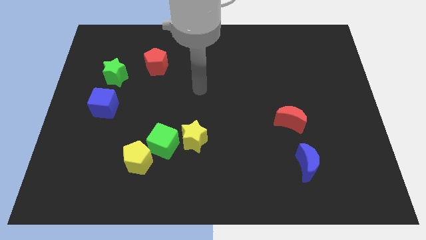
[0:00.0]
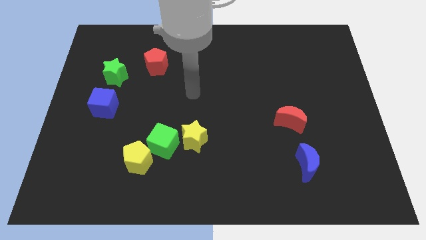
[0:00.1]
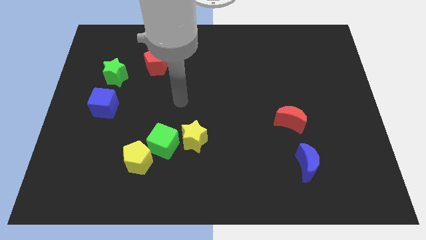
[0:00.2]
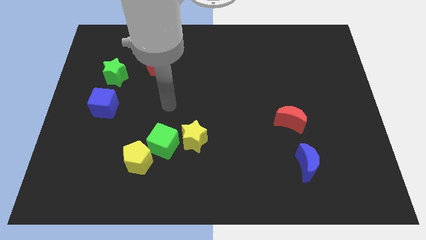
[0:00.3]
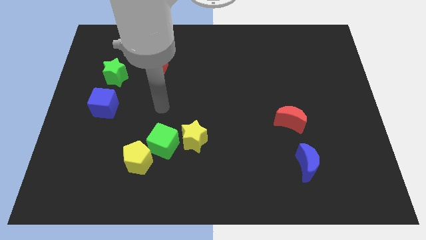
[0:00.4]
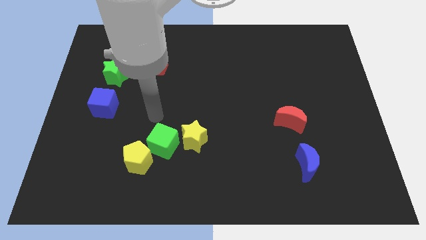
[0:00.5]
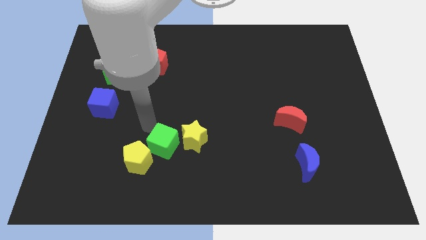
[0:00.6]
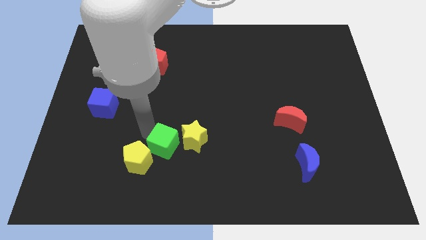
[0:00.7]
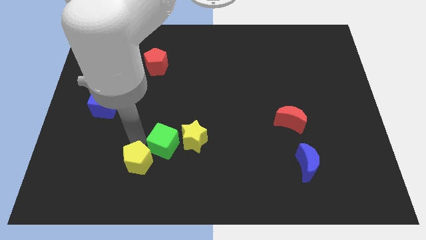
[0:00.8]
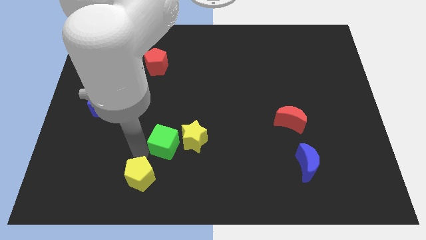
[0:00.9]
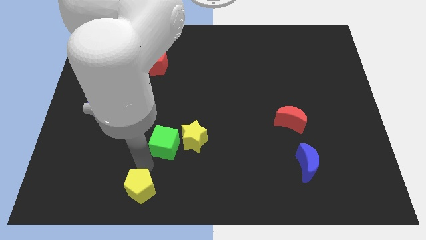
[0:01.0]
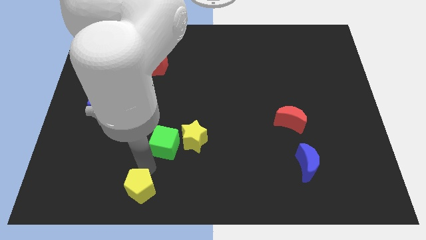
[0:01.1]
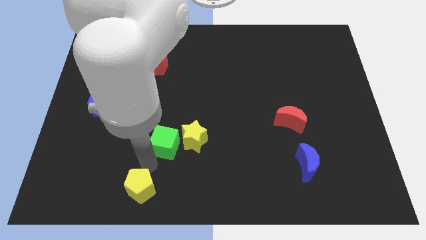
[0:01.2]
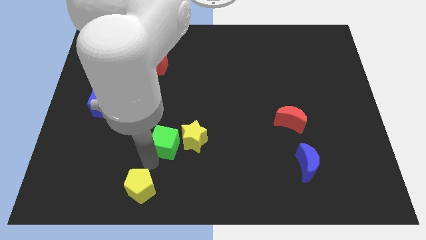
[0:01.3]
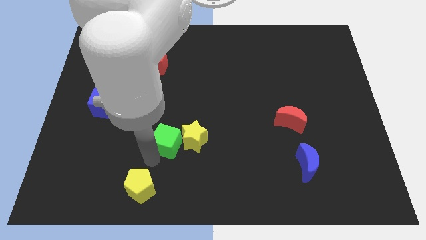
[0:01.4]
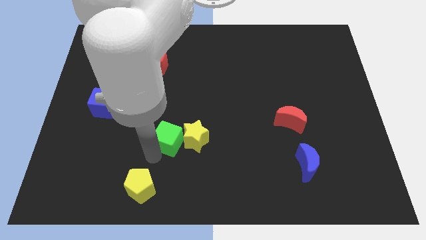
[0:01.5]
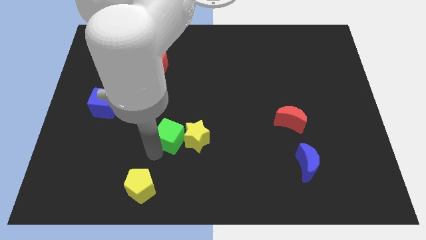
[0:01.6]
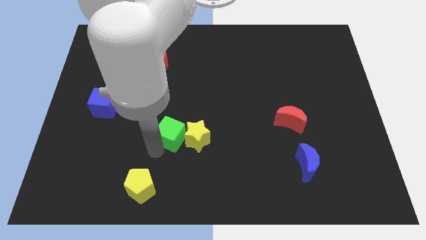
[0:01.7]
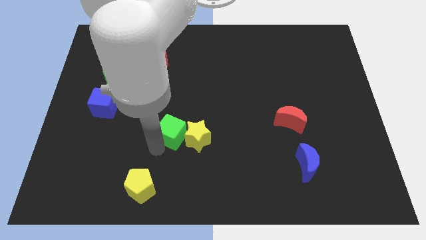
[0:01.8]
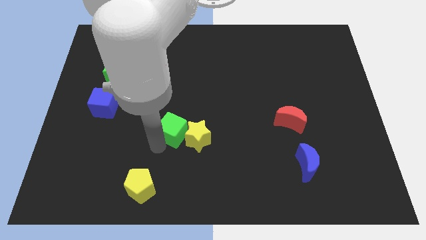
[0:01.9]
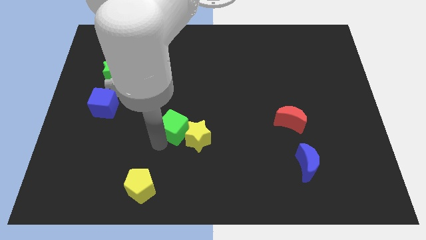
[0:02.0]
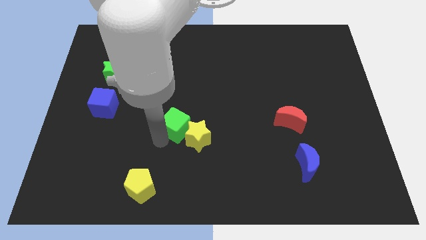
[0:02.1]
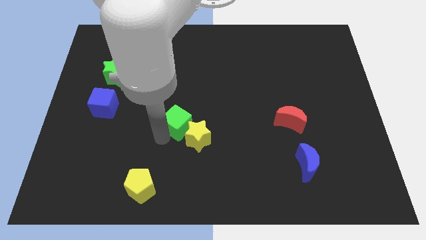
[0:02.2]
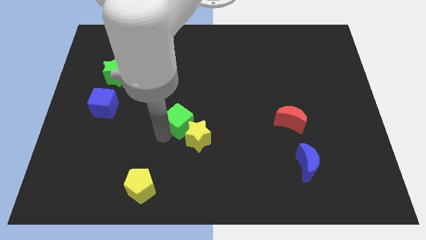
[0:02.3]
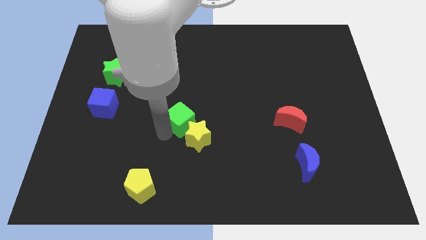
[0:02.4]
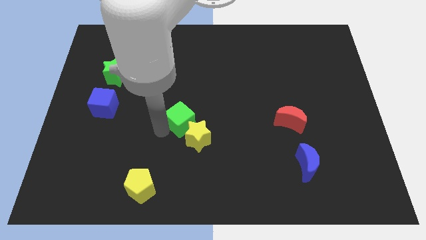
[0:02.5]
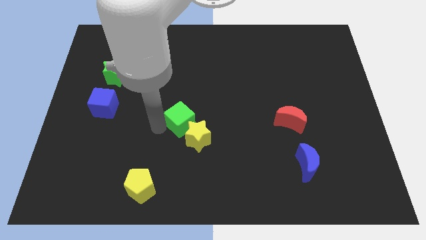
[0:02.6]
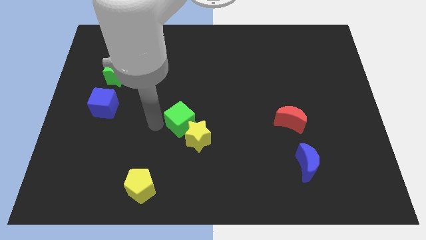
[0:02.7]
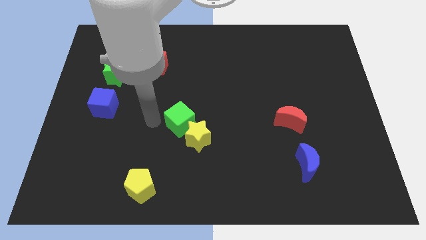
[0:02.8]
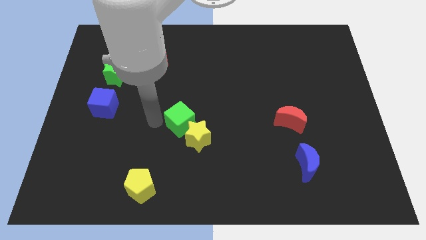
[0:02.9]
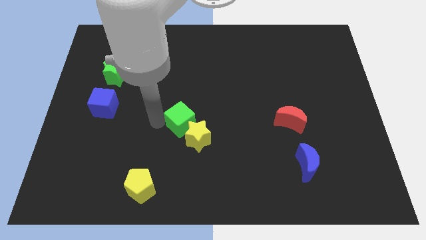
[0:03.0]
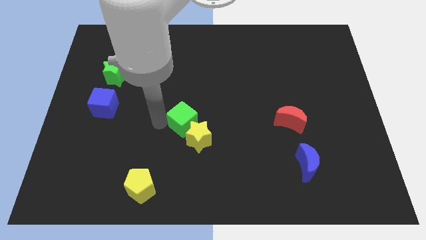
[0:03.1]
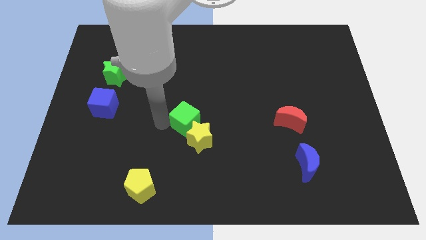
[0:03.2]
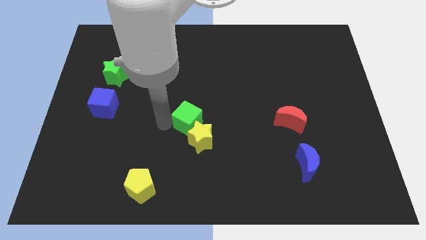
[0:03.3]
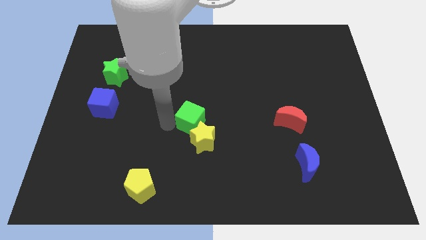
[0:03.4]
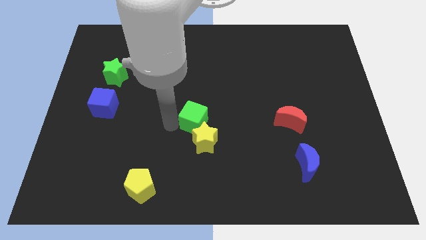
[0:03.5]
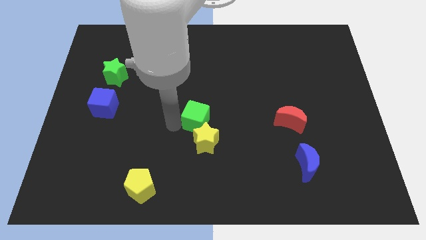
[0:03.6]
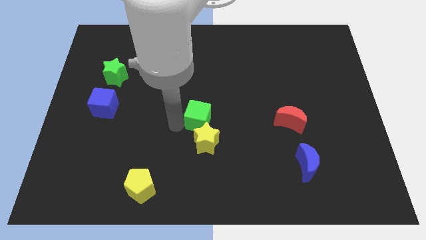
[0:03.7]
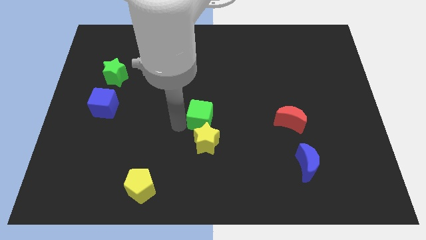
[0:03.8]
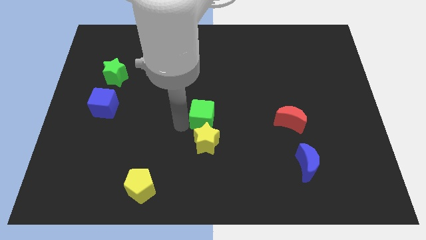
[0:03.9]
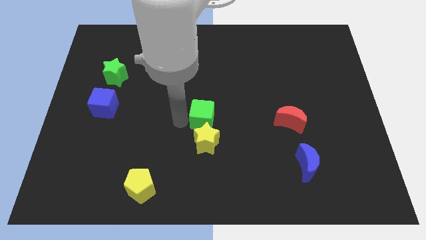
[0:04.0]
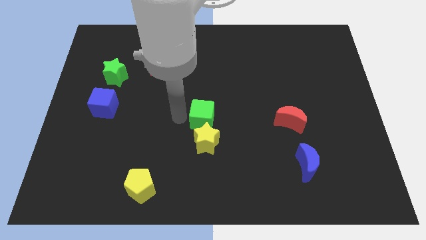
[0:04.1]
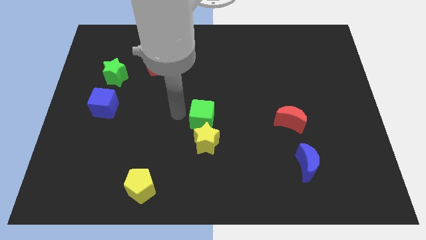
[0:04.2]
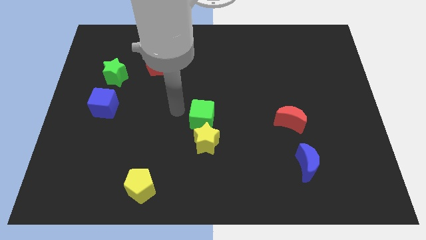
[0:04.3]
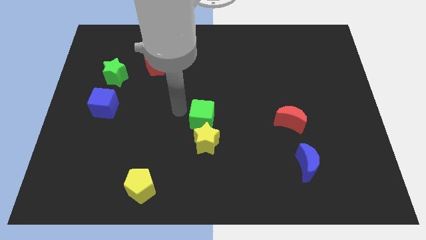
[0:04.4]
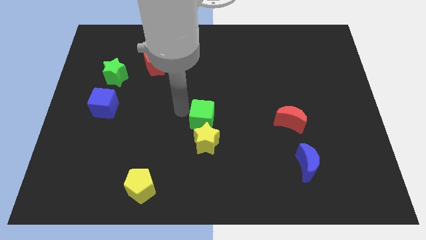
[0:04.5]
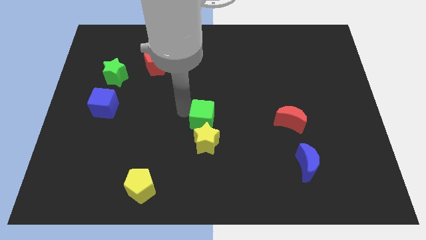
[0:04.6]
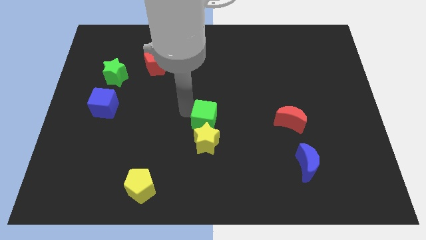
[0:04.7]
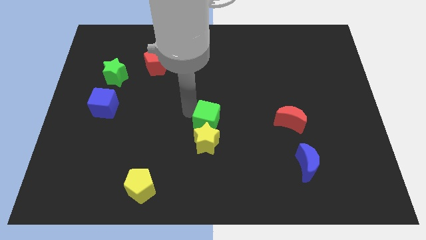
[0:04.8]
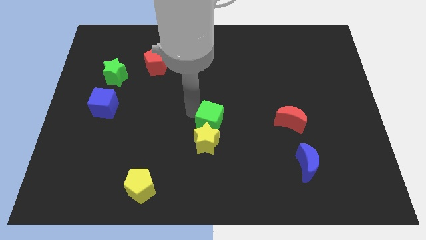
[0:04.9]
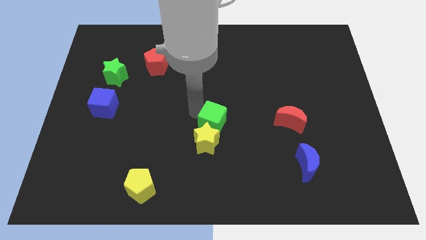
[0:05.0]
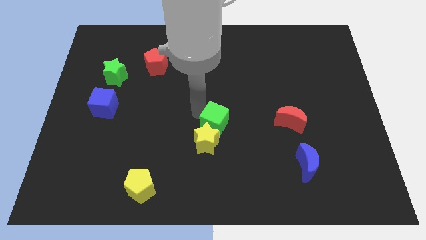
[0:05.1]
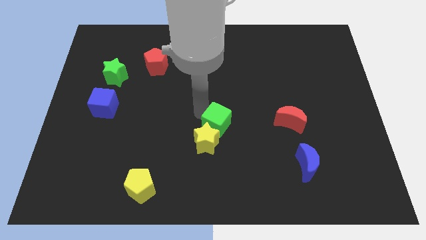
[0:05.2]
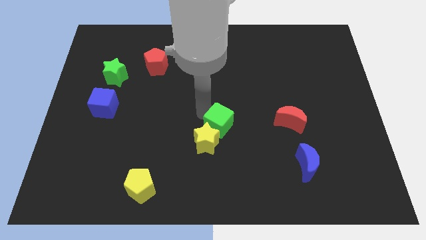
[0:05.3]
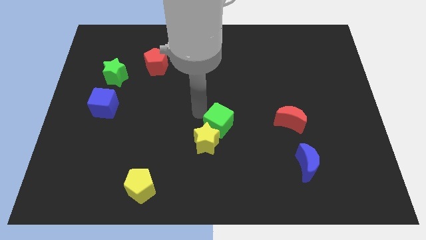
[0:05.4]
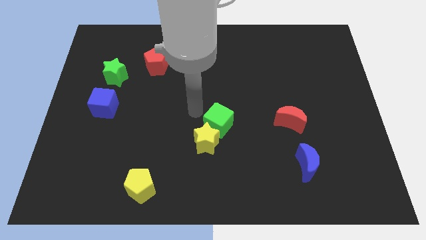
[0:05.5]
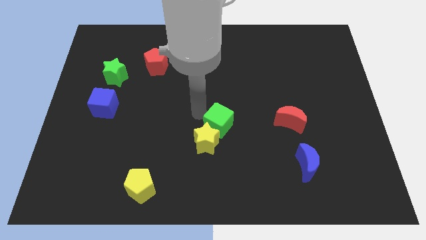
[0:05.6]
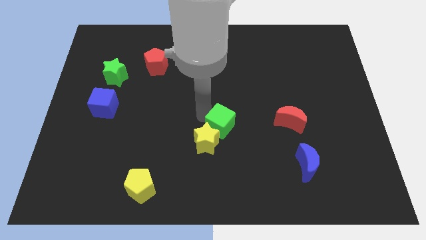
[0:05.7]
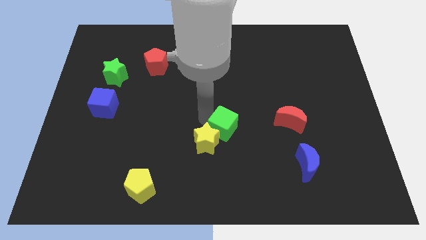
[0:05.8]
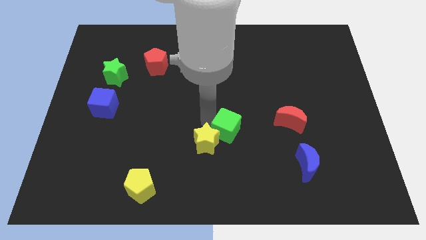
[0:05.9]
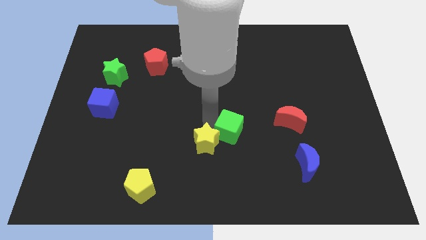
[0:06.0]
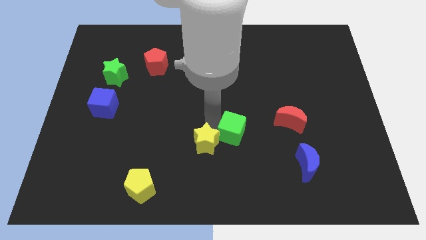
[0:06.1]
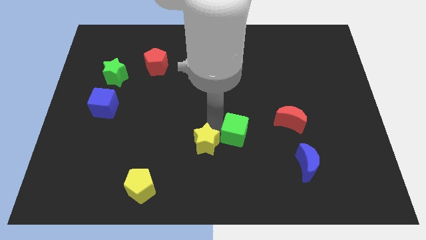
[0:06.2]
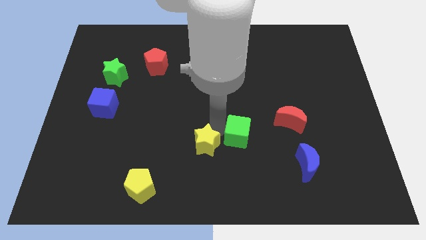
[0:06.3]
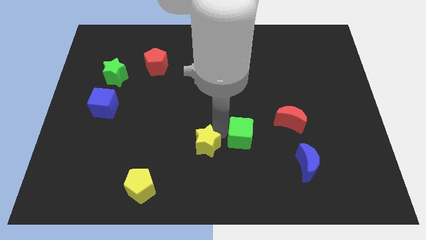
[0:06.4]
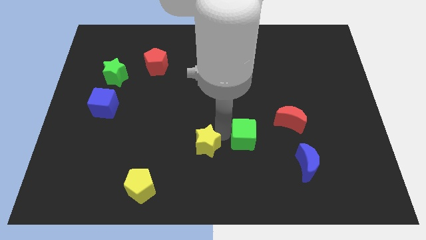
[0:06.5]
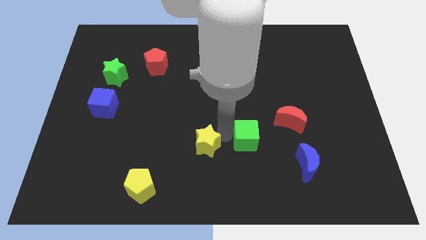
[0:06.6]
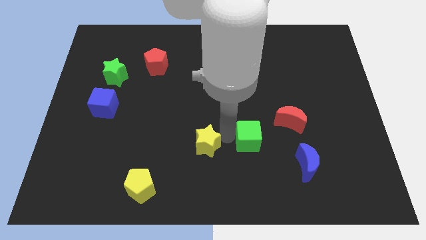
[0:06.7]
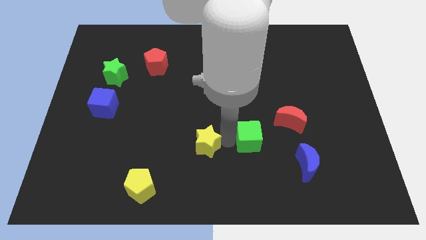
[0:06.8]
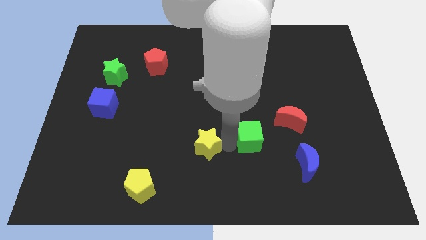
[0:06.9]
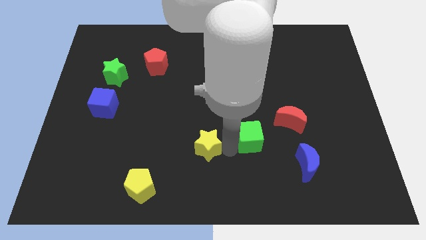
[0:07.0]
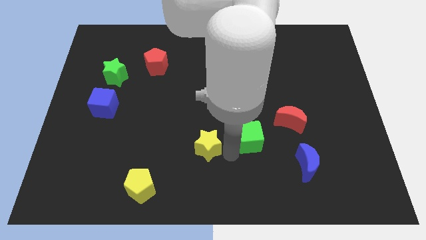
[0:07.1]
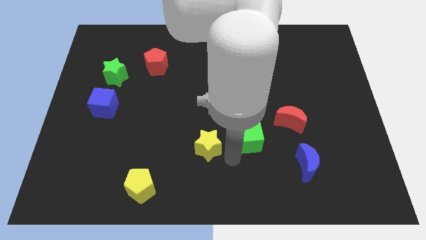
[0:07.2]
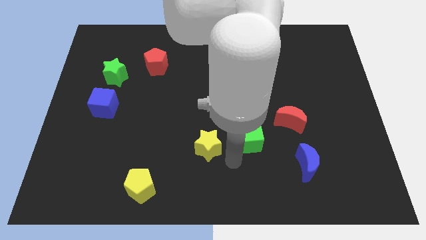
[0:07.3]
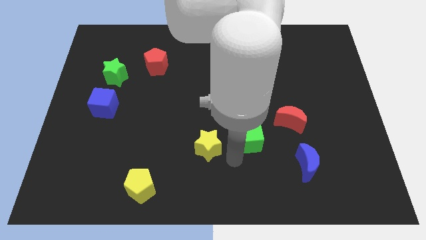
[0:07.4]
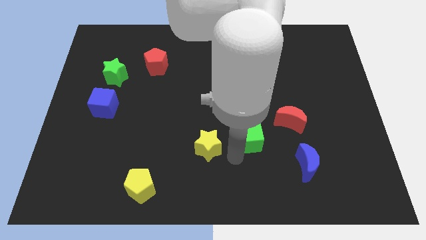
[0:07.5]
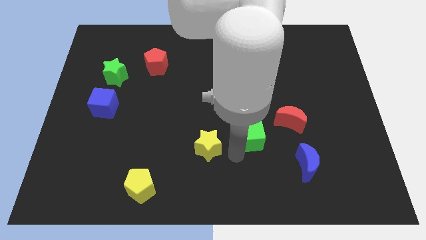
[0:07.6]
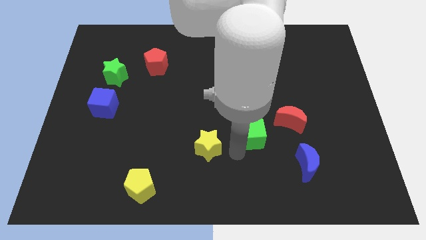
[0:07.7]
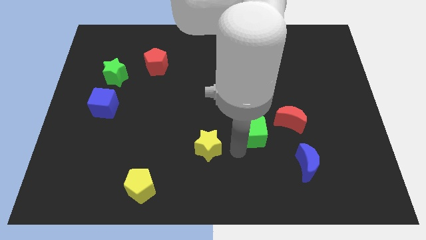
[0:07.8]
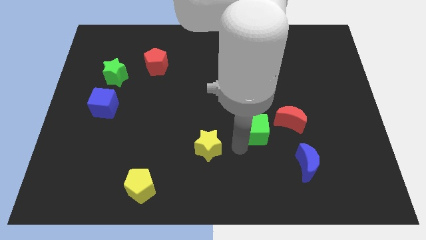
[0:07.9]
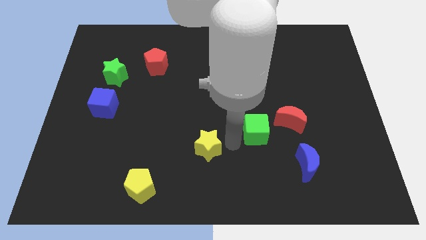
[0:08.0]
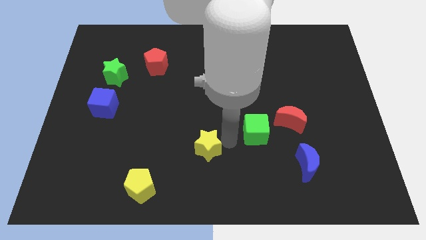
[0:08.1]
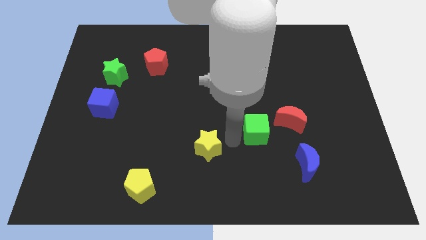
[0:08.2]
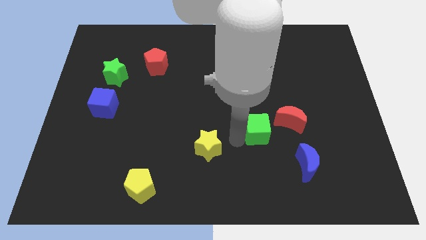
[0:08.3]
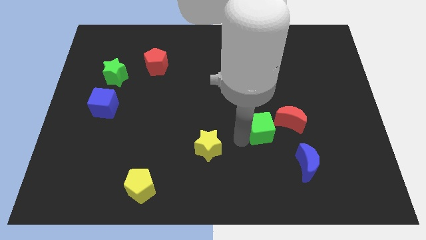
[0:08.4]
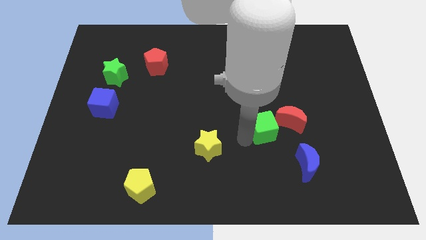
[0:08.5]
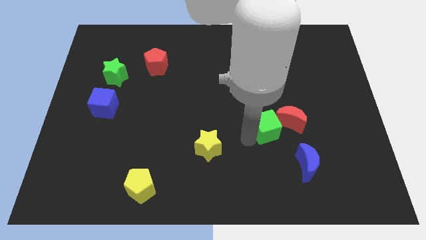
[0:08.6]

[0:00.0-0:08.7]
push the green cube next to the red moon
